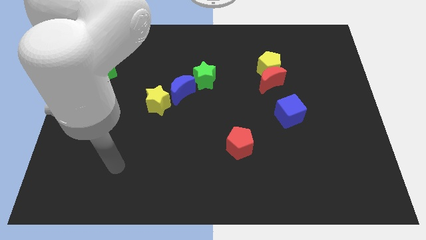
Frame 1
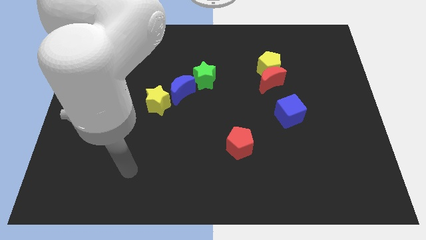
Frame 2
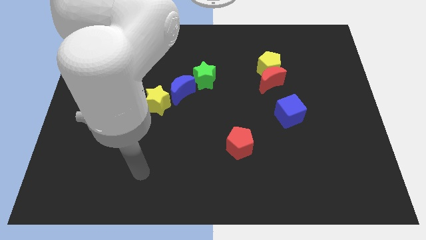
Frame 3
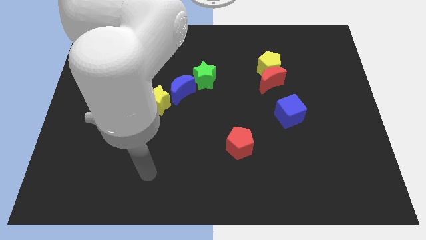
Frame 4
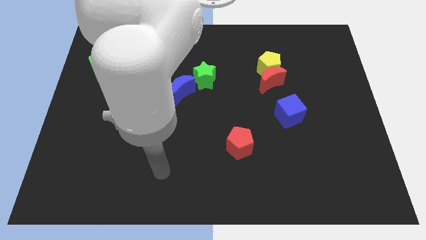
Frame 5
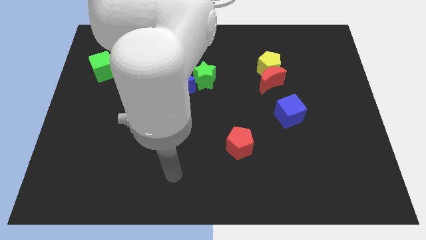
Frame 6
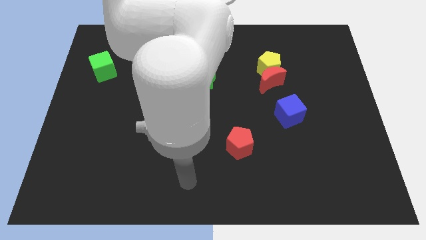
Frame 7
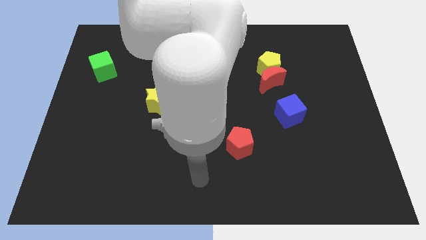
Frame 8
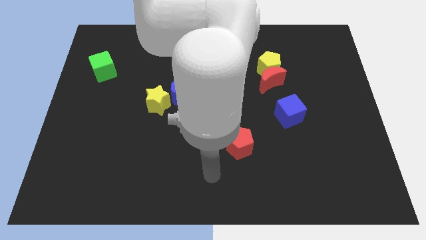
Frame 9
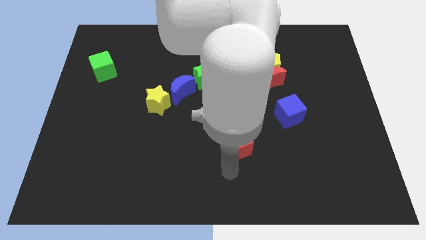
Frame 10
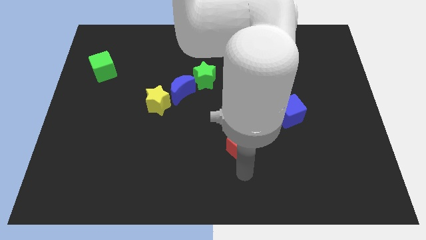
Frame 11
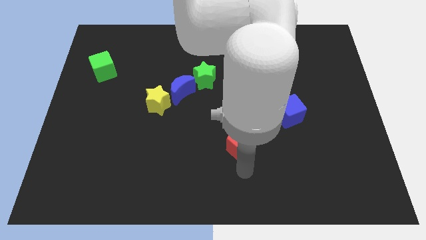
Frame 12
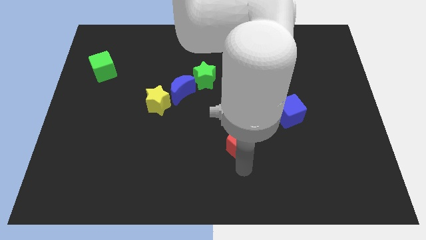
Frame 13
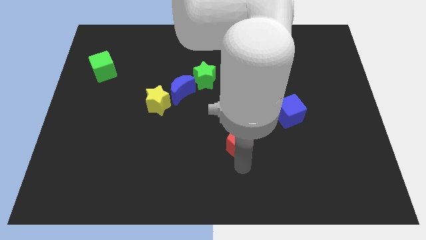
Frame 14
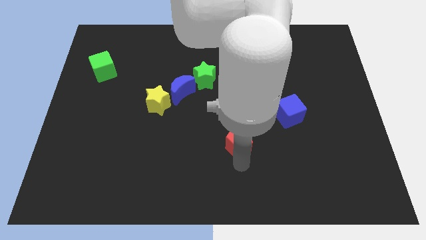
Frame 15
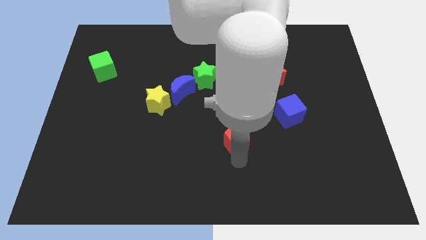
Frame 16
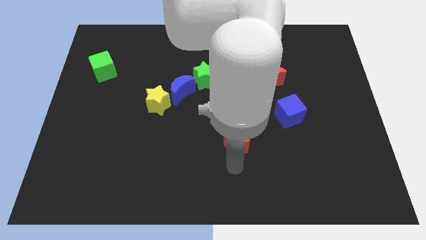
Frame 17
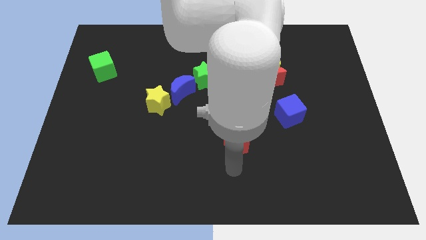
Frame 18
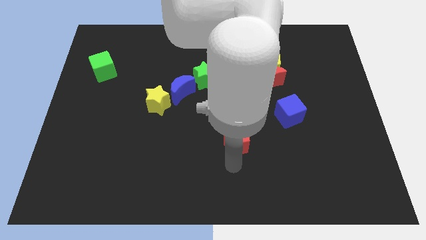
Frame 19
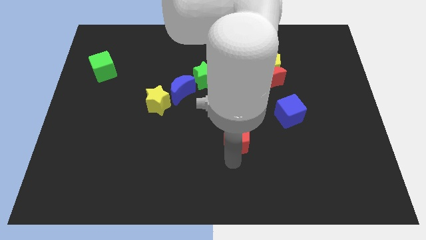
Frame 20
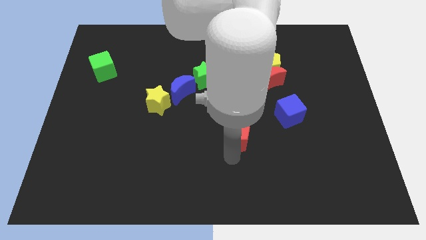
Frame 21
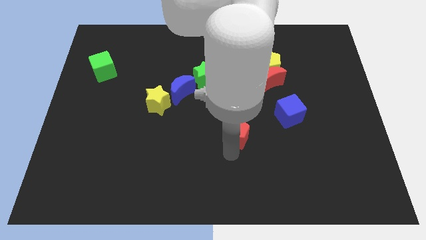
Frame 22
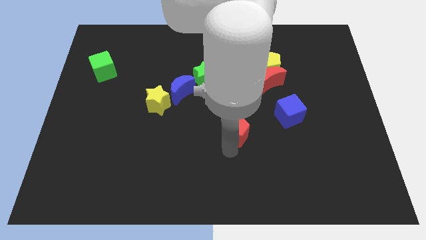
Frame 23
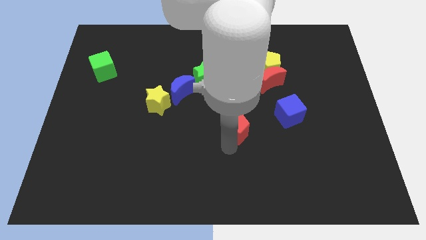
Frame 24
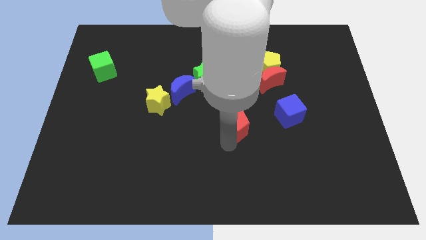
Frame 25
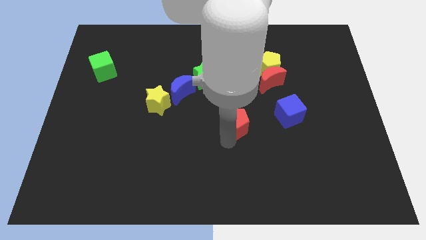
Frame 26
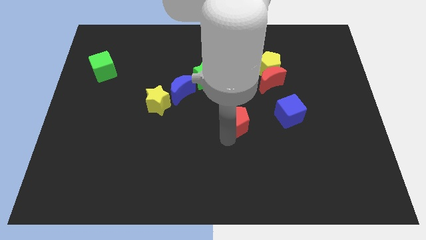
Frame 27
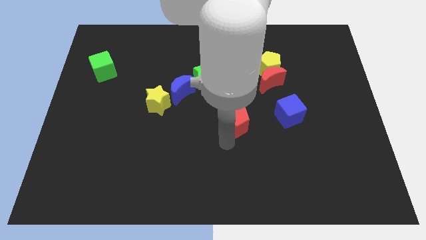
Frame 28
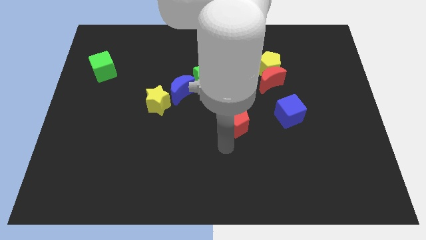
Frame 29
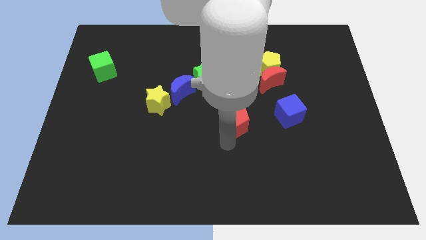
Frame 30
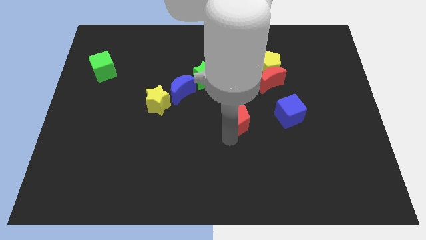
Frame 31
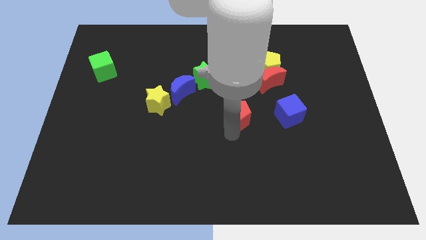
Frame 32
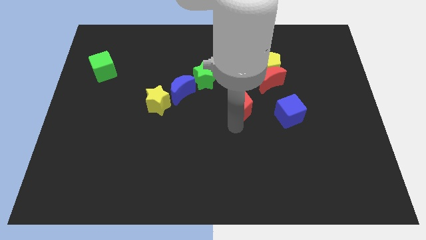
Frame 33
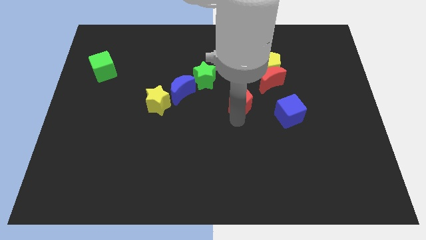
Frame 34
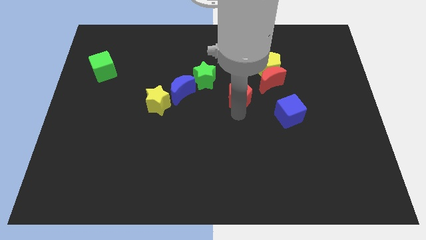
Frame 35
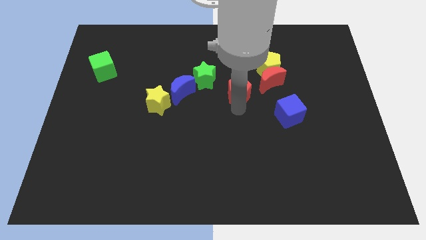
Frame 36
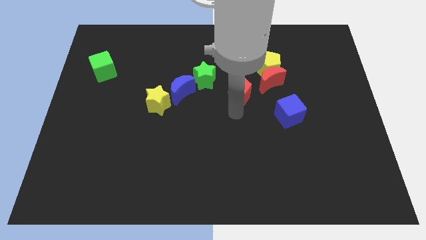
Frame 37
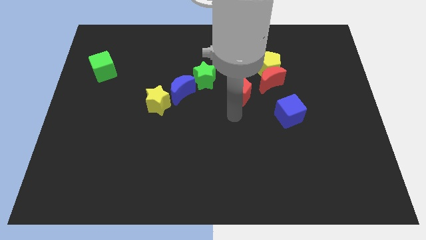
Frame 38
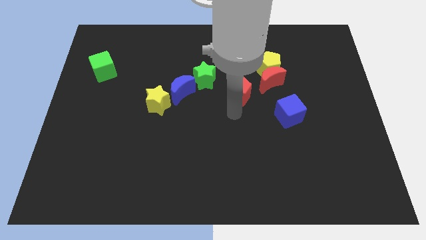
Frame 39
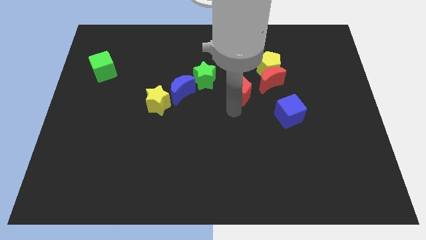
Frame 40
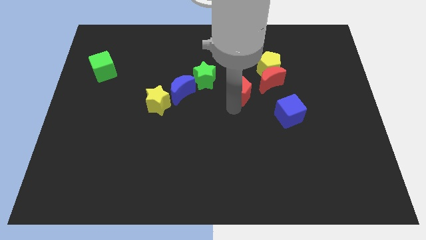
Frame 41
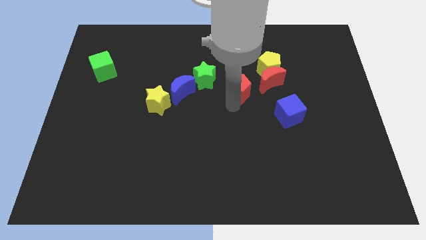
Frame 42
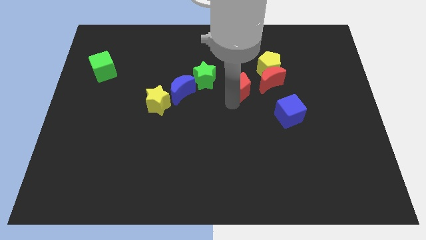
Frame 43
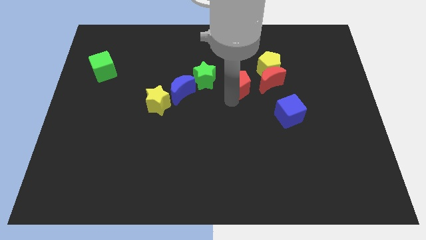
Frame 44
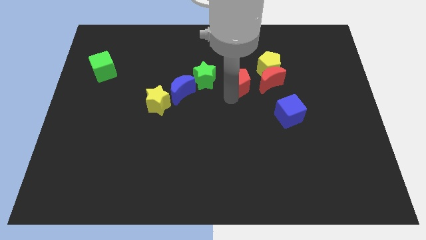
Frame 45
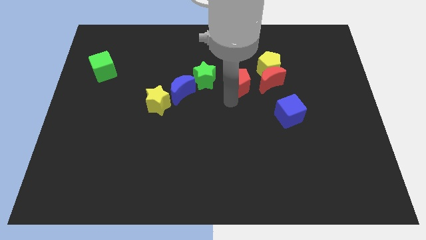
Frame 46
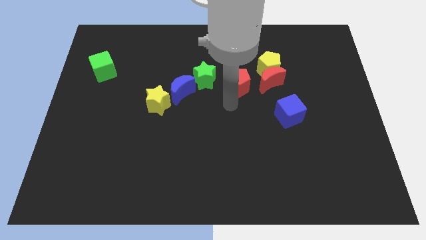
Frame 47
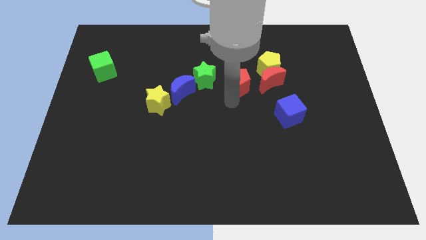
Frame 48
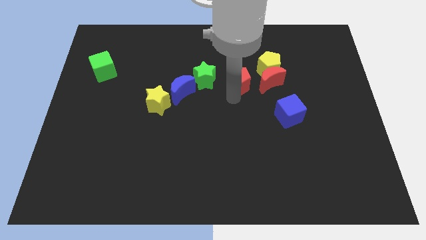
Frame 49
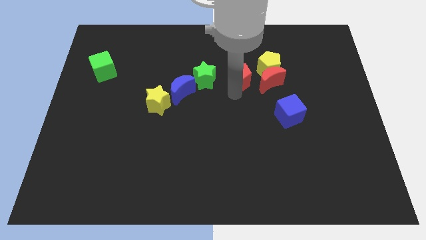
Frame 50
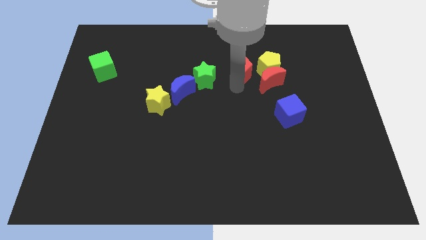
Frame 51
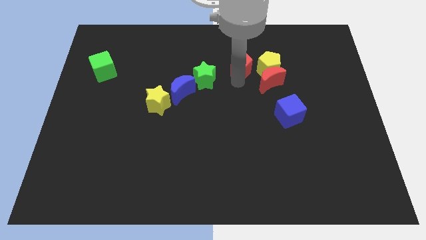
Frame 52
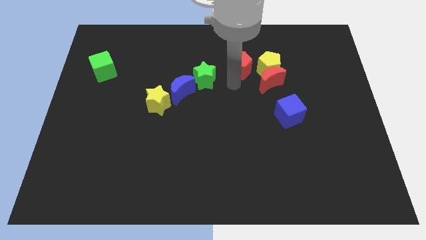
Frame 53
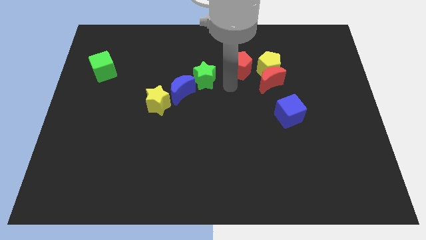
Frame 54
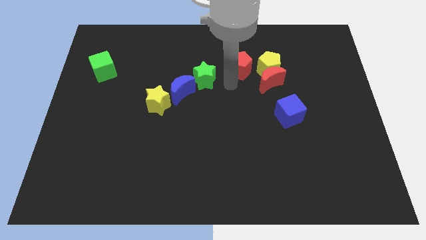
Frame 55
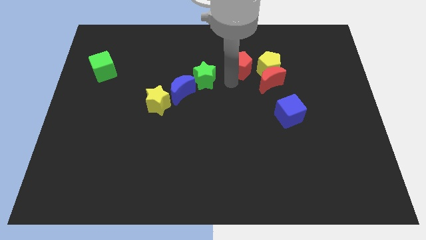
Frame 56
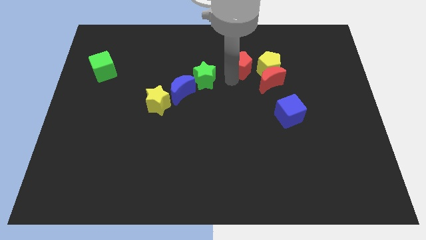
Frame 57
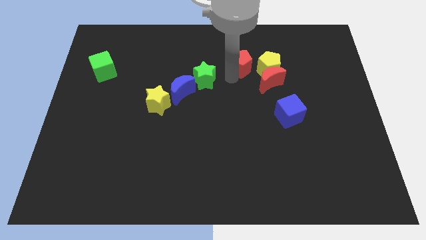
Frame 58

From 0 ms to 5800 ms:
slide the red pentagon to the top left side of the yellow pentagon

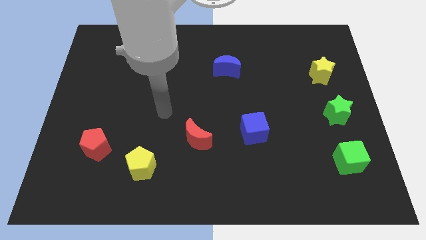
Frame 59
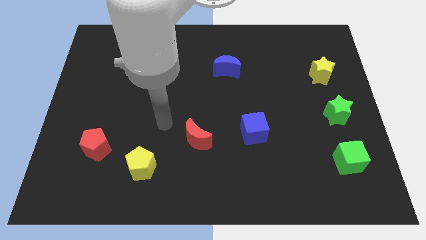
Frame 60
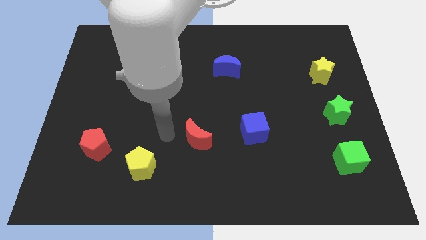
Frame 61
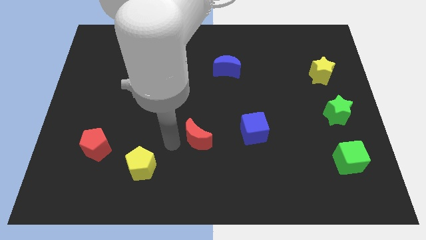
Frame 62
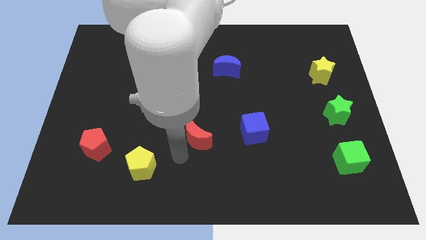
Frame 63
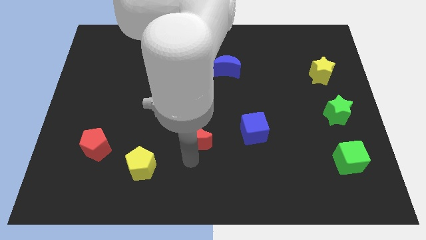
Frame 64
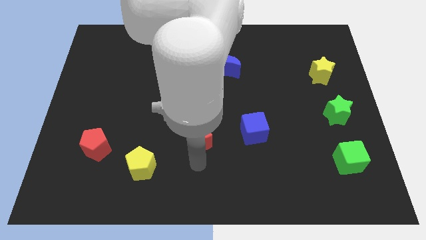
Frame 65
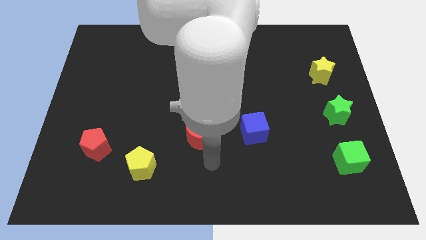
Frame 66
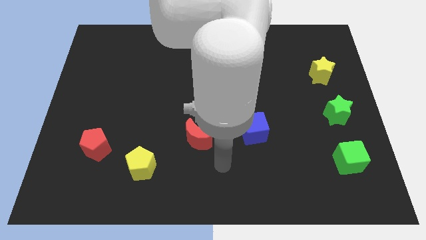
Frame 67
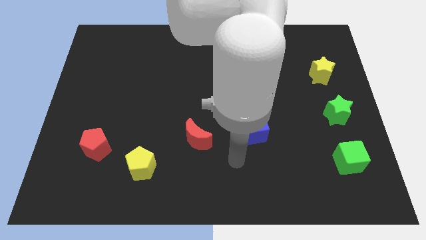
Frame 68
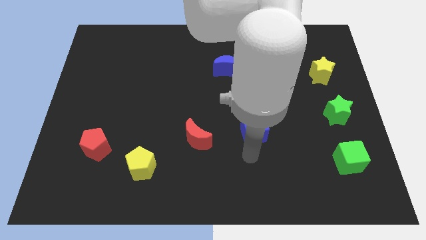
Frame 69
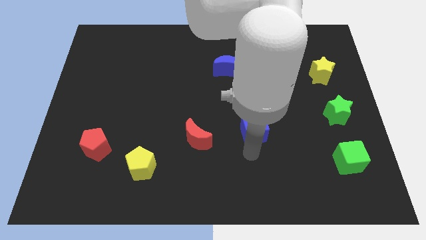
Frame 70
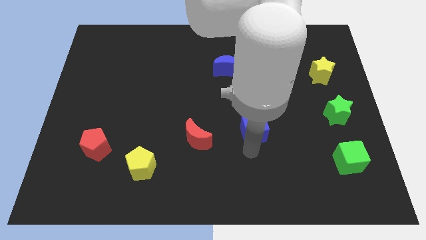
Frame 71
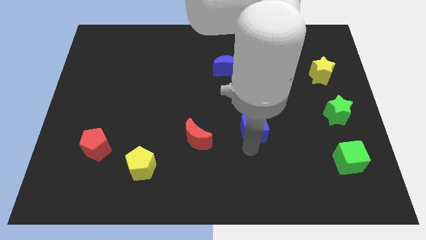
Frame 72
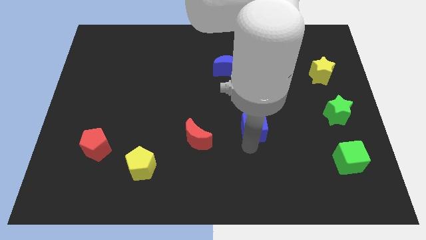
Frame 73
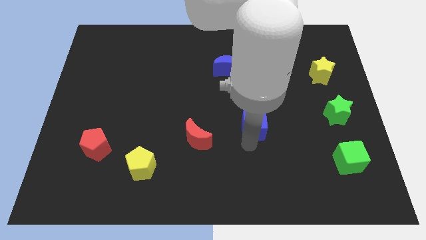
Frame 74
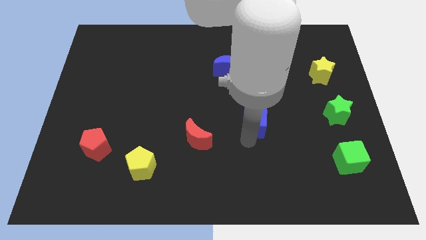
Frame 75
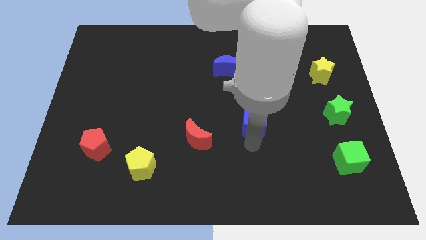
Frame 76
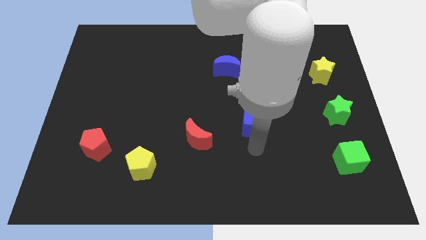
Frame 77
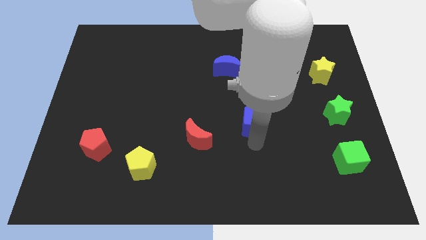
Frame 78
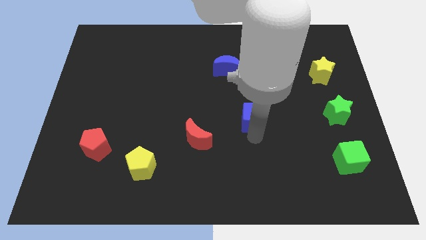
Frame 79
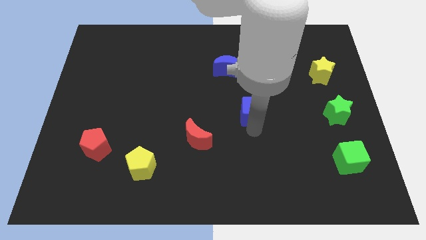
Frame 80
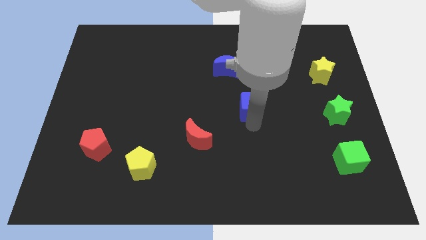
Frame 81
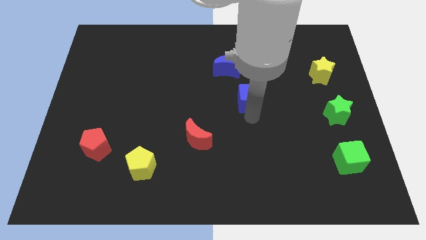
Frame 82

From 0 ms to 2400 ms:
put the blue cube to the bottom right side of the blue moon
